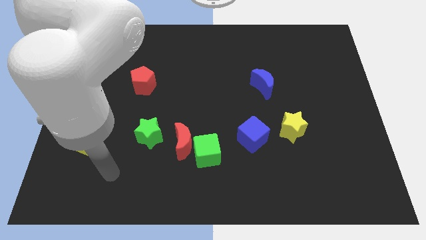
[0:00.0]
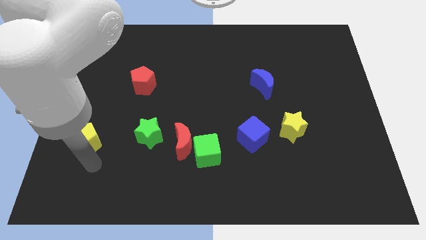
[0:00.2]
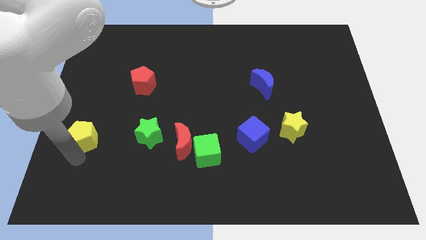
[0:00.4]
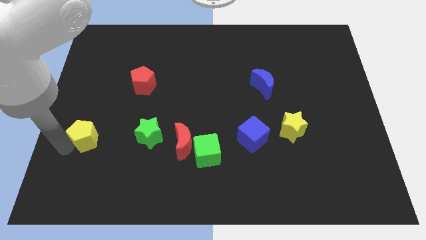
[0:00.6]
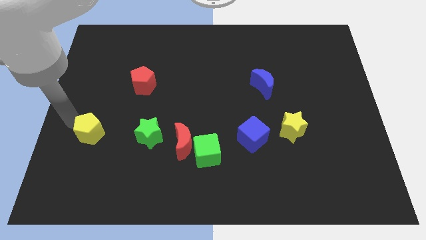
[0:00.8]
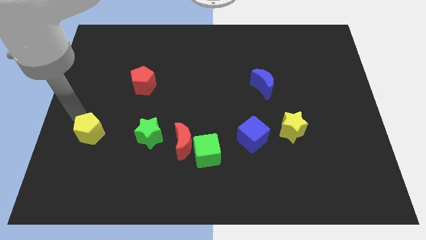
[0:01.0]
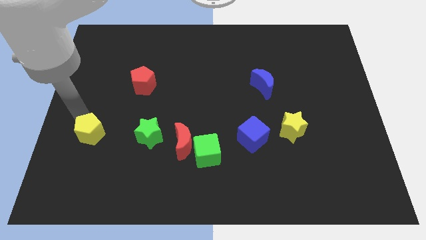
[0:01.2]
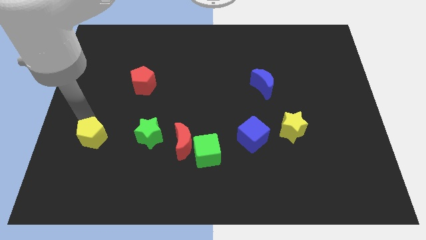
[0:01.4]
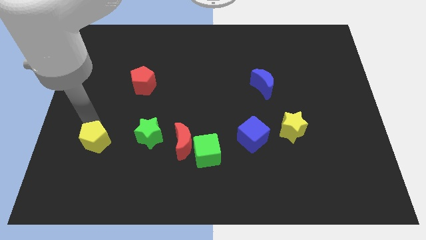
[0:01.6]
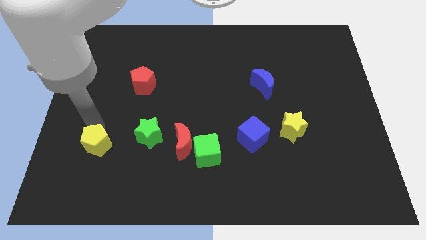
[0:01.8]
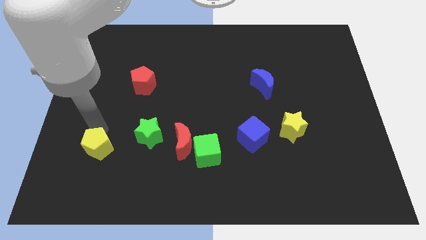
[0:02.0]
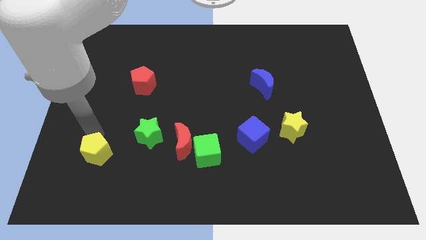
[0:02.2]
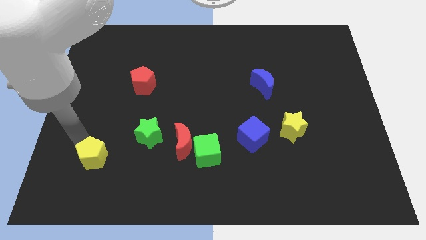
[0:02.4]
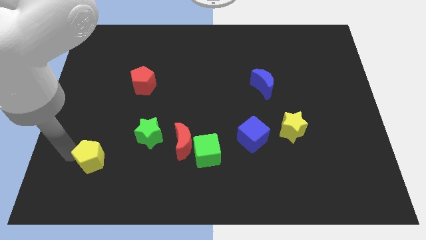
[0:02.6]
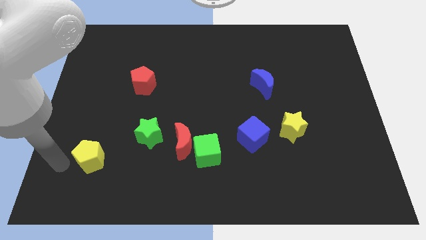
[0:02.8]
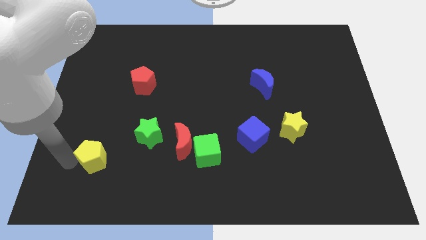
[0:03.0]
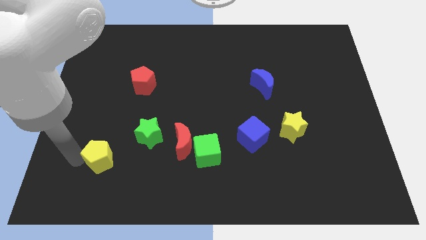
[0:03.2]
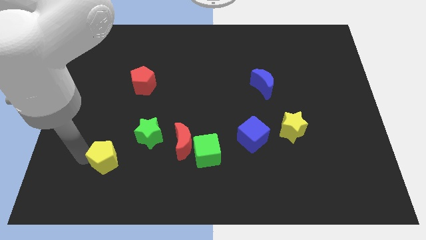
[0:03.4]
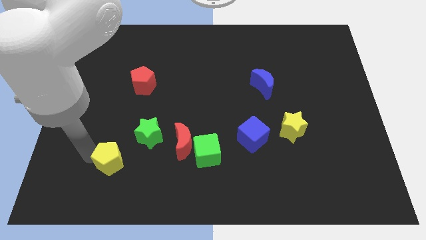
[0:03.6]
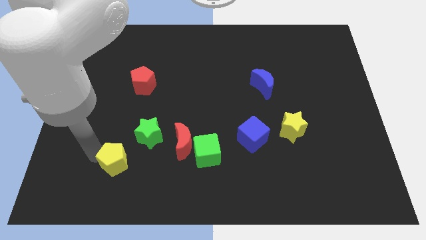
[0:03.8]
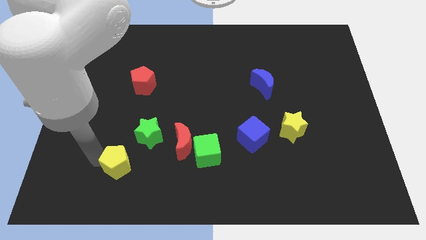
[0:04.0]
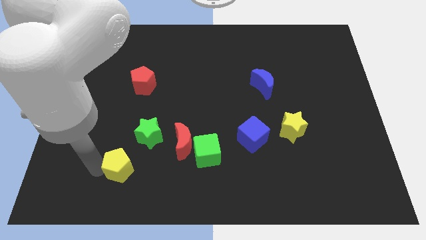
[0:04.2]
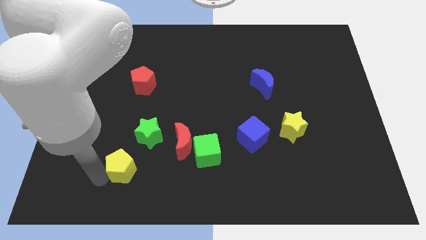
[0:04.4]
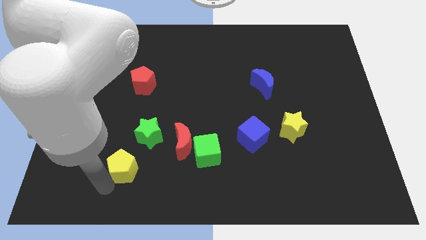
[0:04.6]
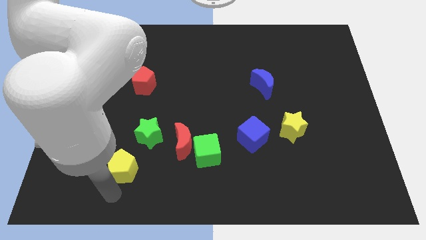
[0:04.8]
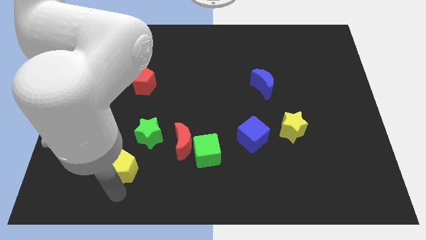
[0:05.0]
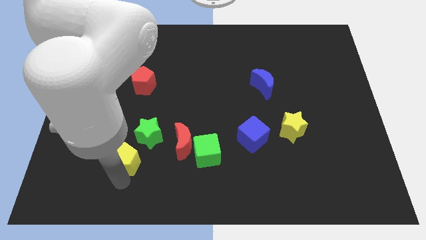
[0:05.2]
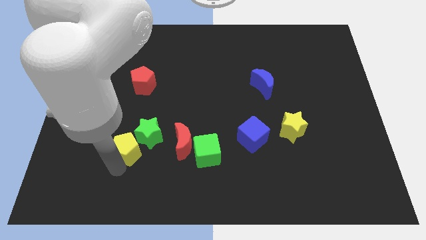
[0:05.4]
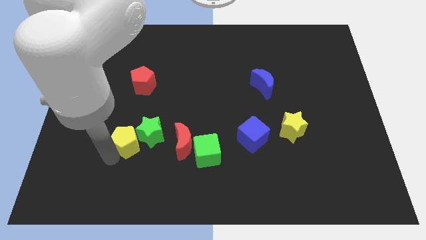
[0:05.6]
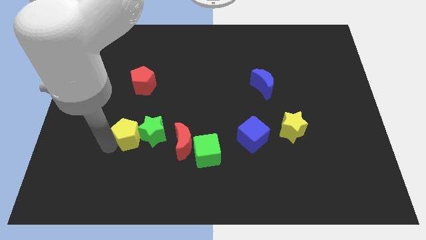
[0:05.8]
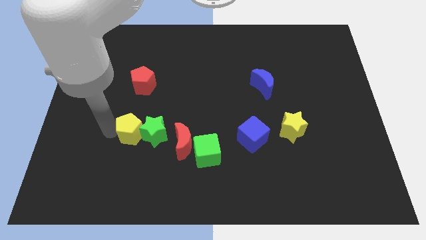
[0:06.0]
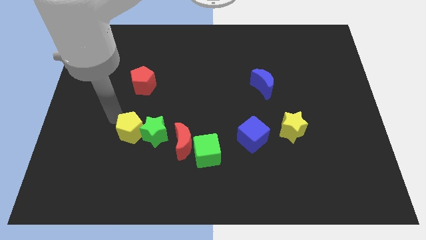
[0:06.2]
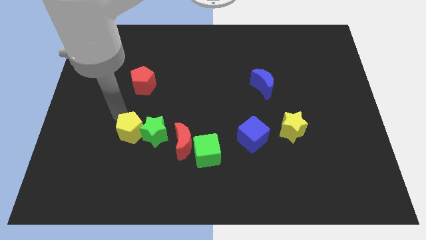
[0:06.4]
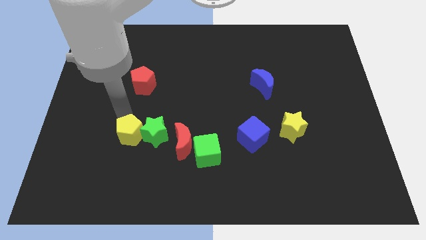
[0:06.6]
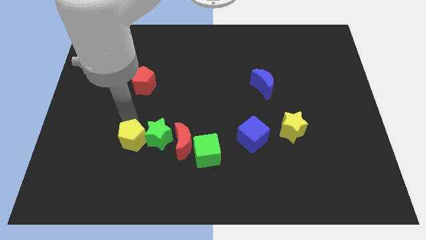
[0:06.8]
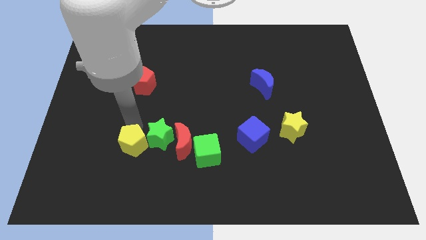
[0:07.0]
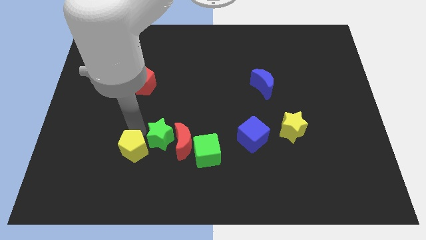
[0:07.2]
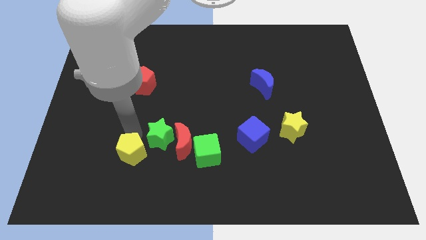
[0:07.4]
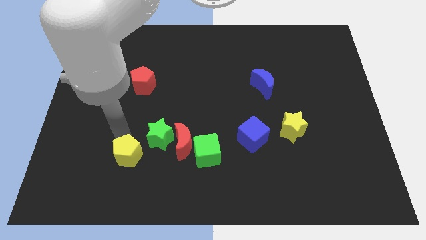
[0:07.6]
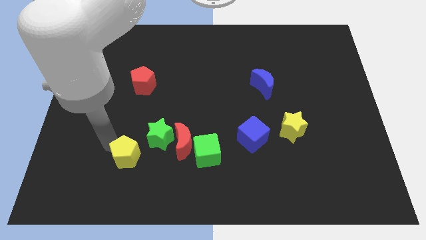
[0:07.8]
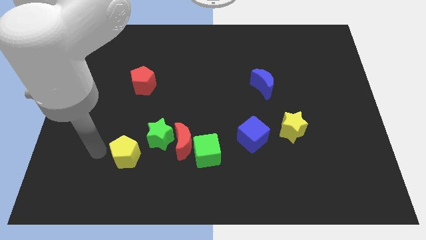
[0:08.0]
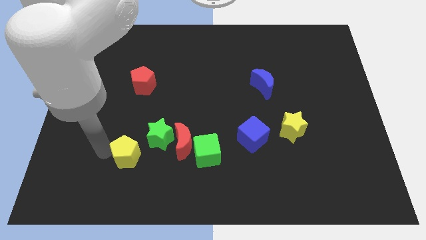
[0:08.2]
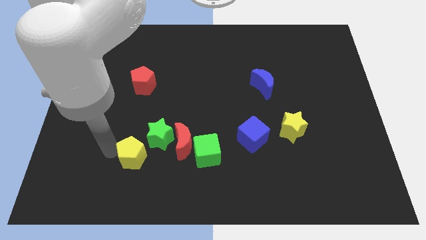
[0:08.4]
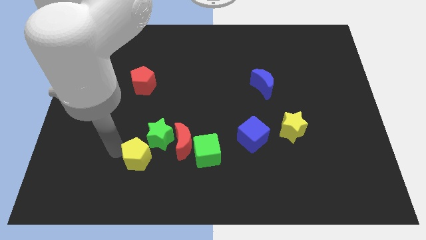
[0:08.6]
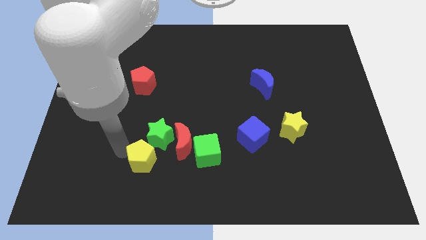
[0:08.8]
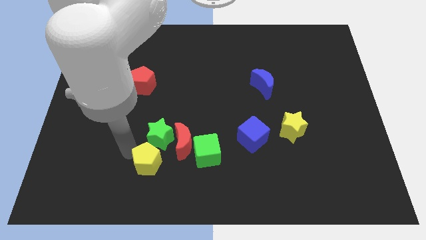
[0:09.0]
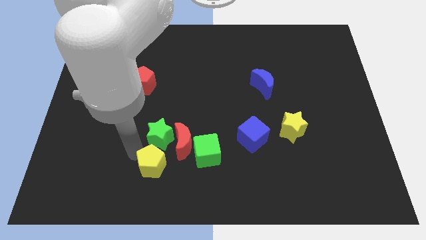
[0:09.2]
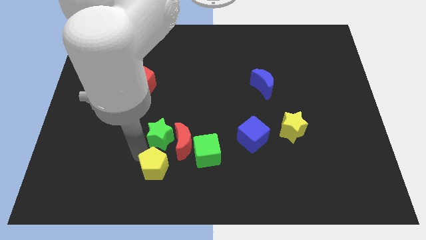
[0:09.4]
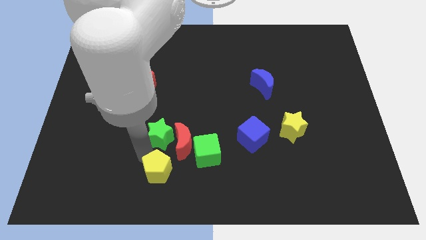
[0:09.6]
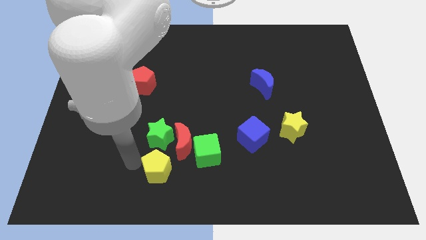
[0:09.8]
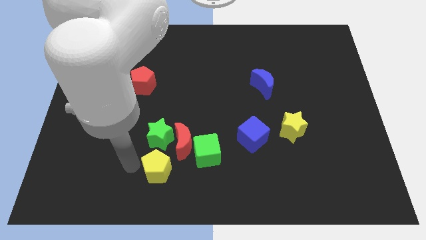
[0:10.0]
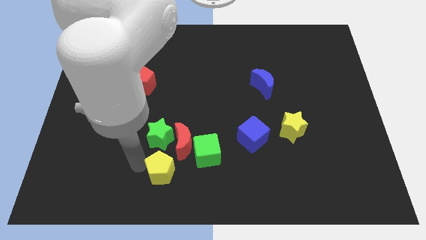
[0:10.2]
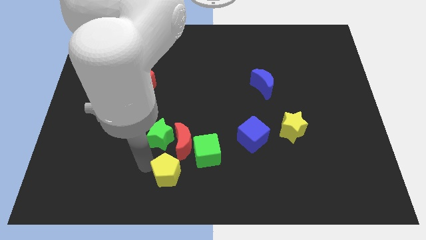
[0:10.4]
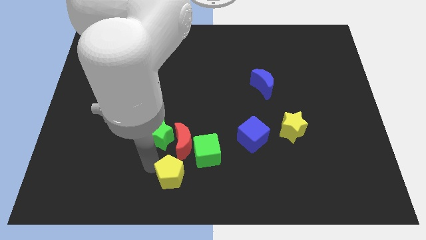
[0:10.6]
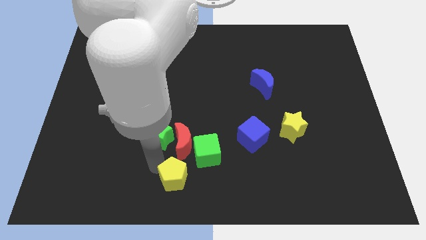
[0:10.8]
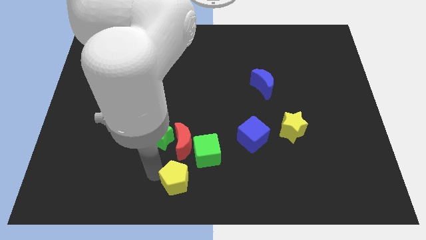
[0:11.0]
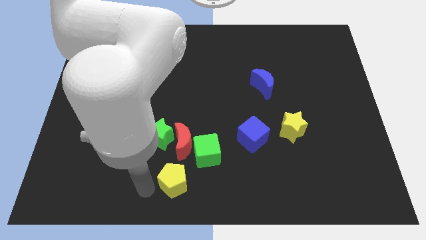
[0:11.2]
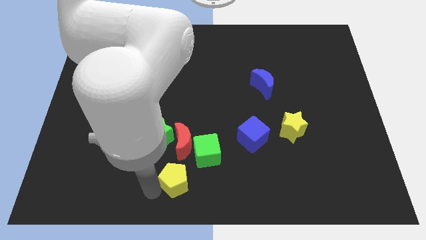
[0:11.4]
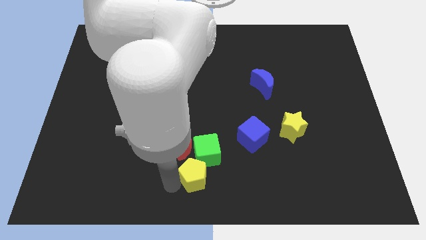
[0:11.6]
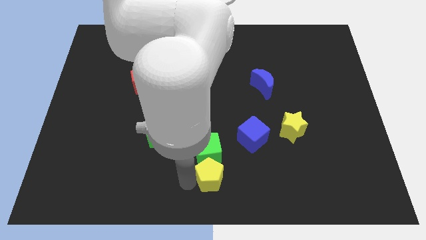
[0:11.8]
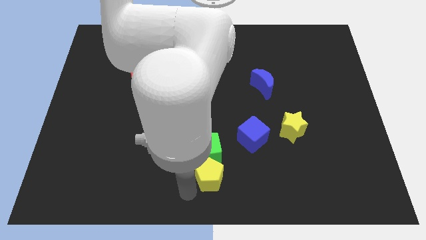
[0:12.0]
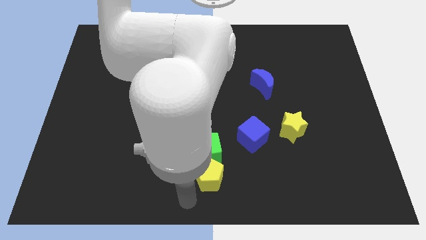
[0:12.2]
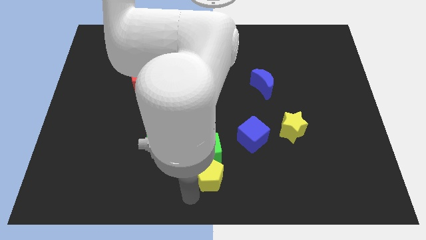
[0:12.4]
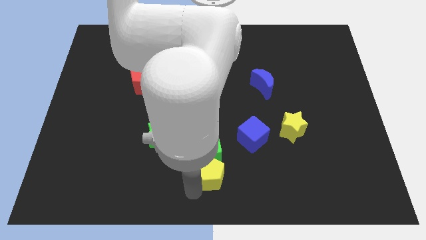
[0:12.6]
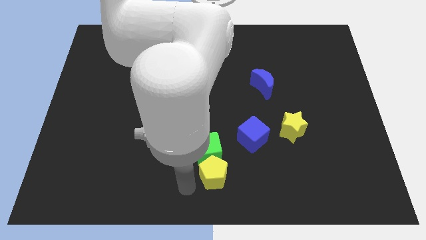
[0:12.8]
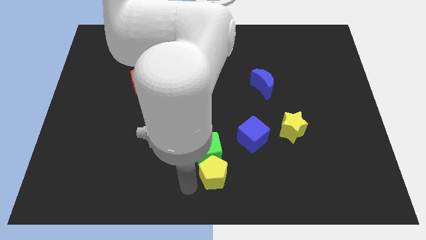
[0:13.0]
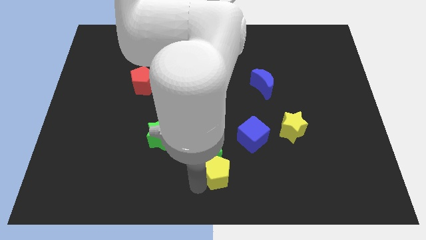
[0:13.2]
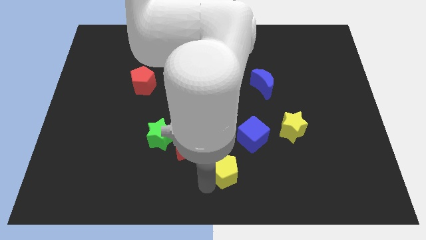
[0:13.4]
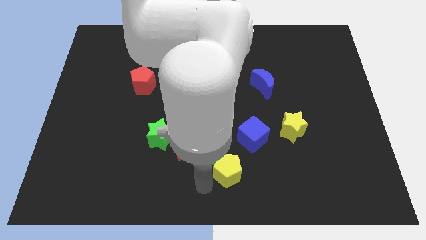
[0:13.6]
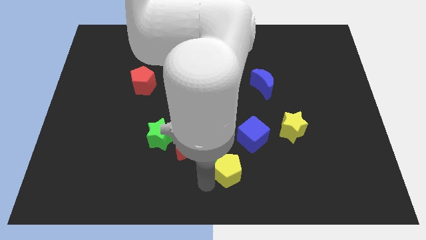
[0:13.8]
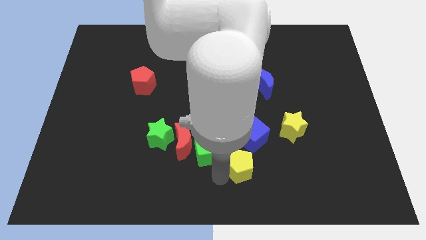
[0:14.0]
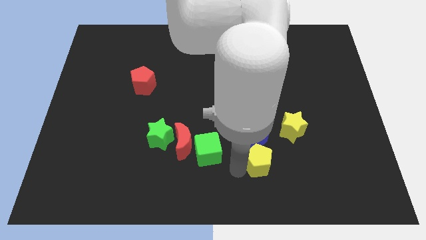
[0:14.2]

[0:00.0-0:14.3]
put the yellow pentagon to the bottom right side of the blue cube
